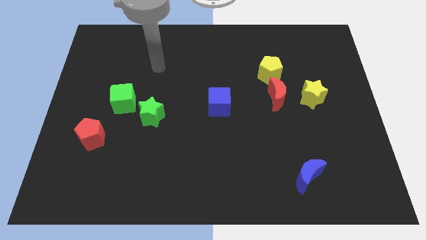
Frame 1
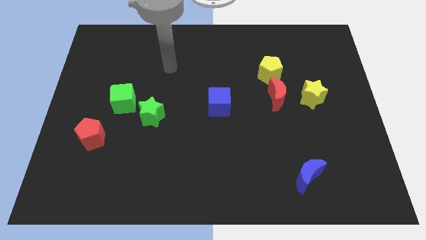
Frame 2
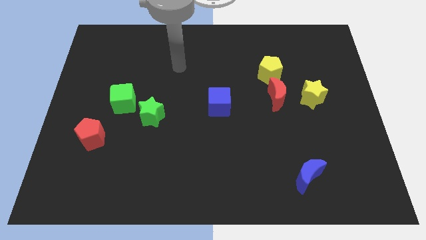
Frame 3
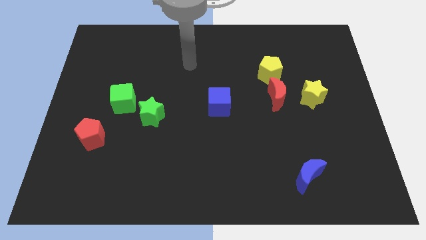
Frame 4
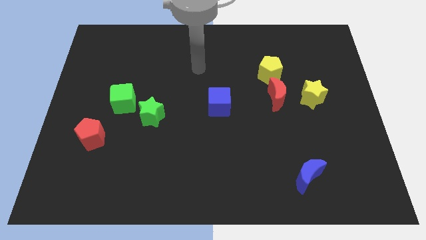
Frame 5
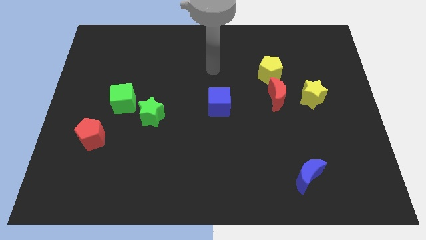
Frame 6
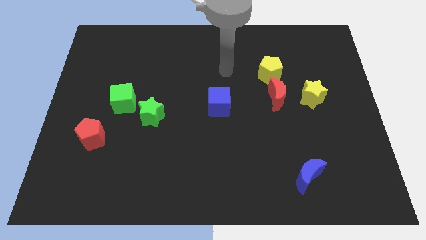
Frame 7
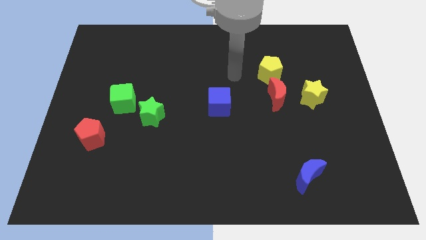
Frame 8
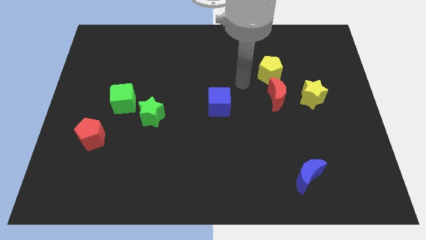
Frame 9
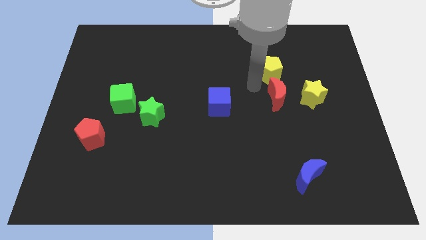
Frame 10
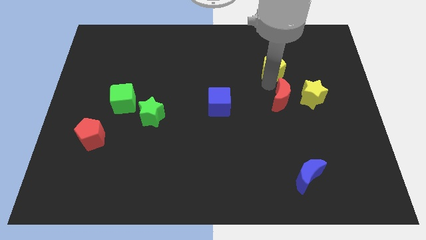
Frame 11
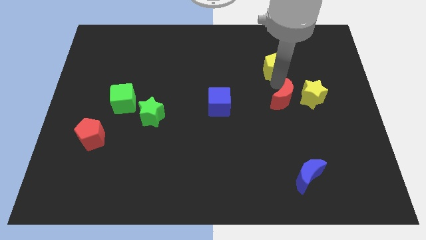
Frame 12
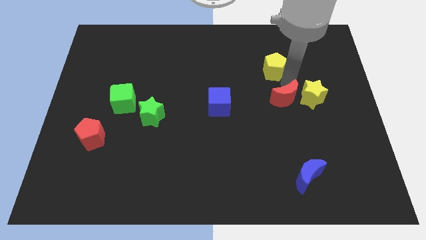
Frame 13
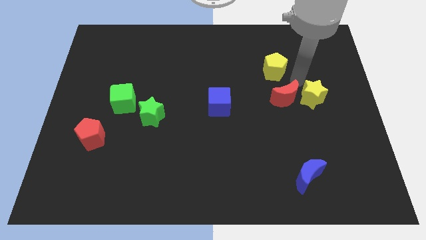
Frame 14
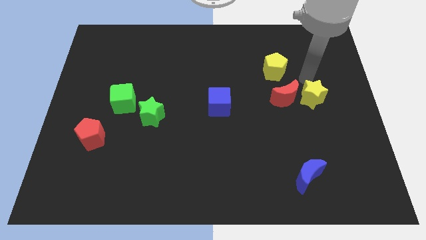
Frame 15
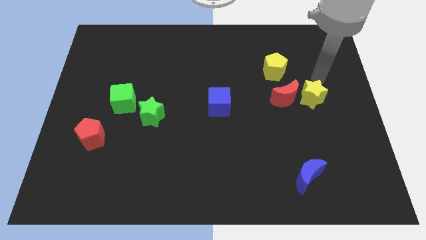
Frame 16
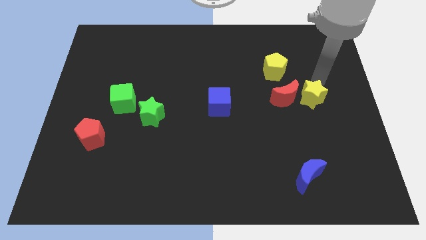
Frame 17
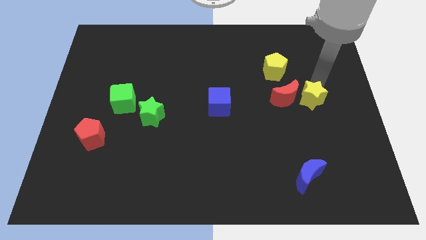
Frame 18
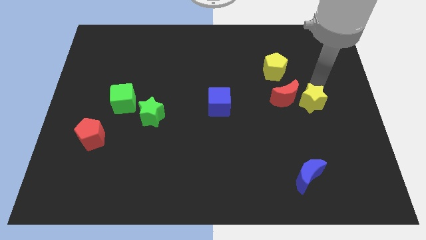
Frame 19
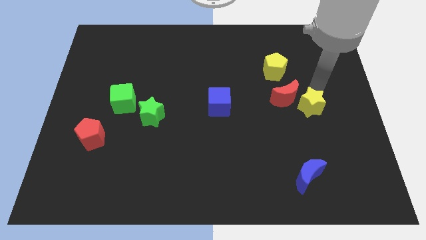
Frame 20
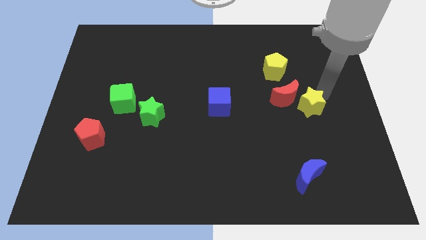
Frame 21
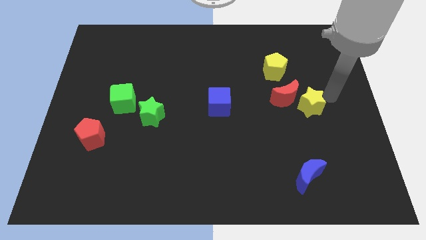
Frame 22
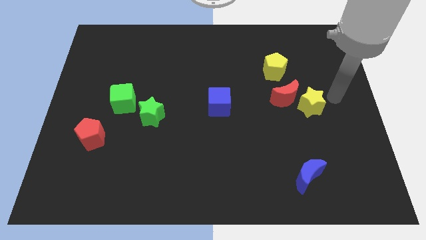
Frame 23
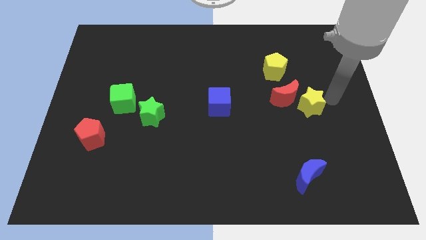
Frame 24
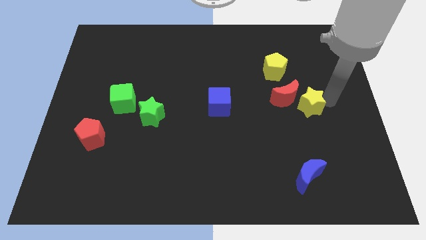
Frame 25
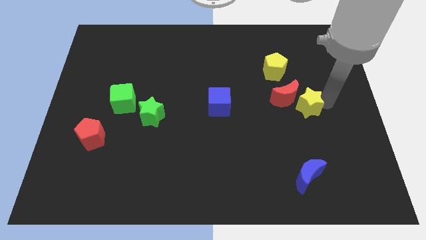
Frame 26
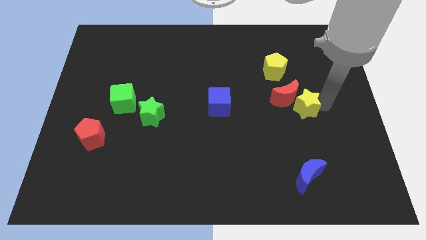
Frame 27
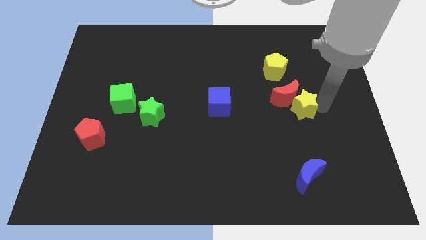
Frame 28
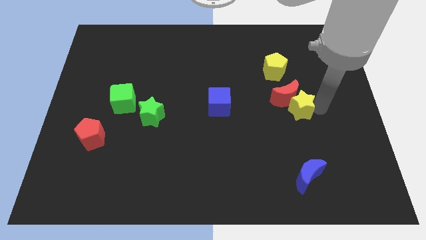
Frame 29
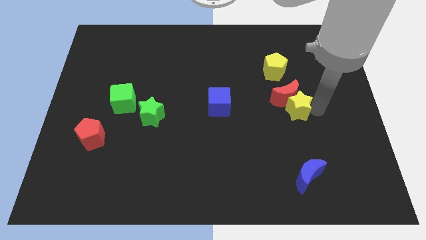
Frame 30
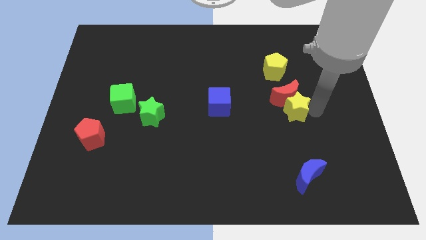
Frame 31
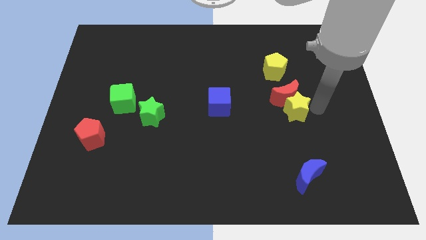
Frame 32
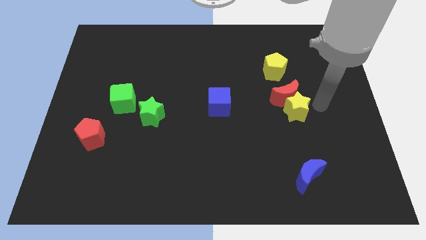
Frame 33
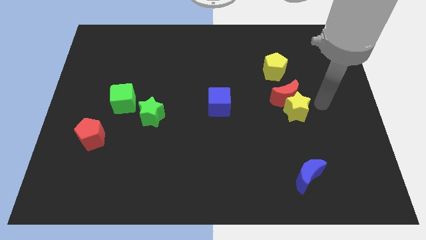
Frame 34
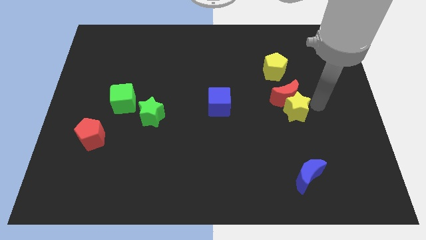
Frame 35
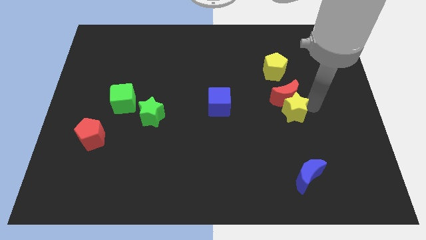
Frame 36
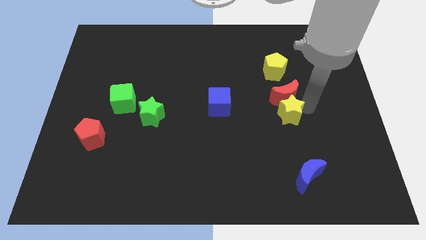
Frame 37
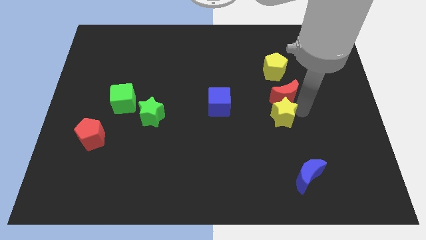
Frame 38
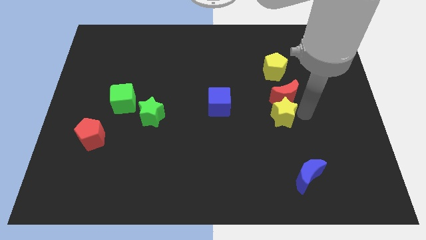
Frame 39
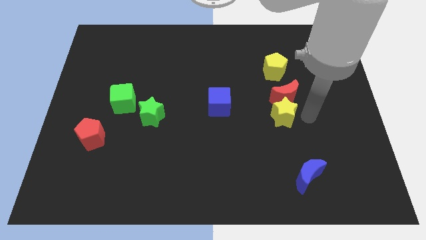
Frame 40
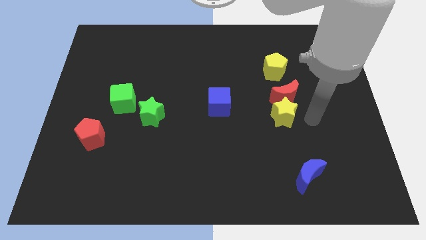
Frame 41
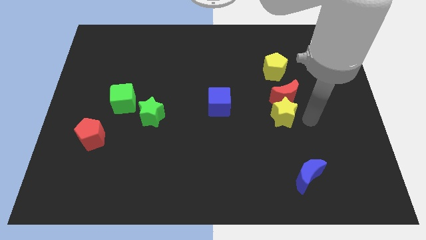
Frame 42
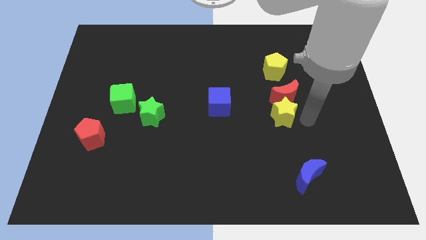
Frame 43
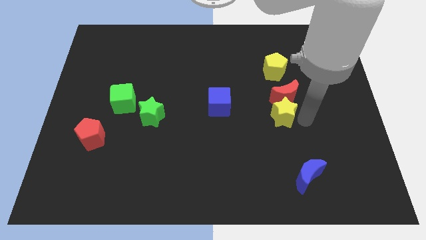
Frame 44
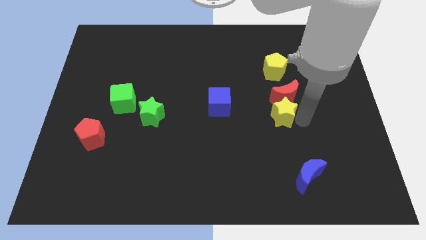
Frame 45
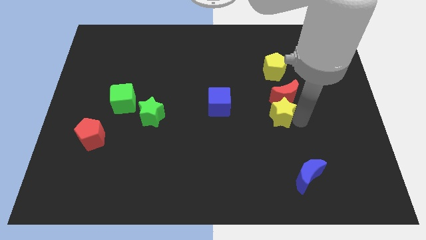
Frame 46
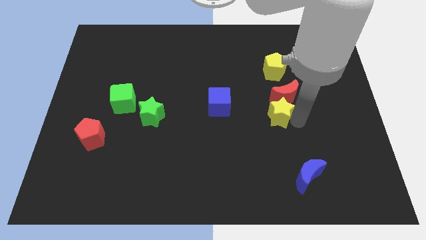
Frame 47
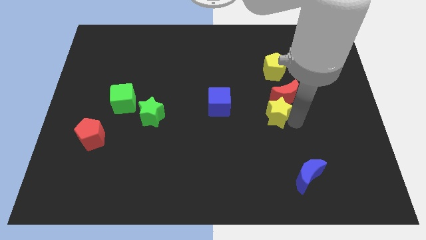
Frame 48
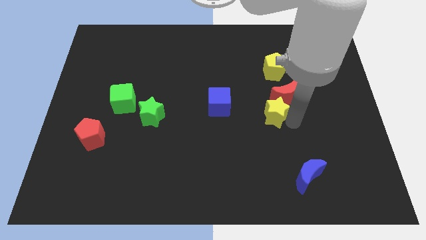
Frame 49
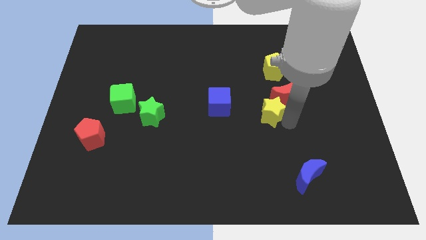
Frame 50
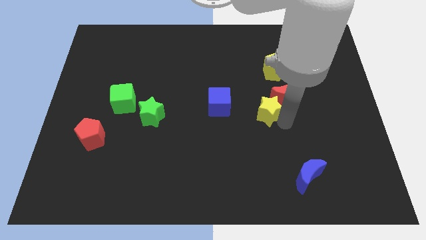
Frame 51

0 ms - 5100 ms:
move the yellow star to the left of the red moon

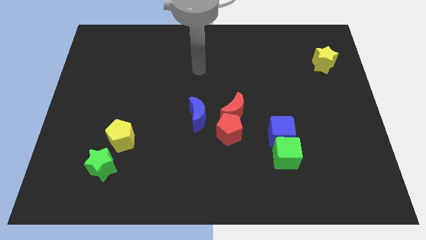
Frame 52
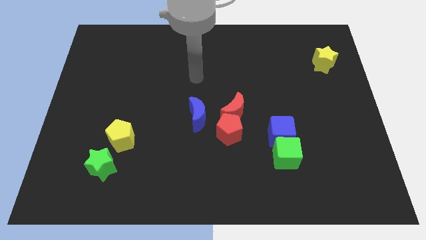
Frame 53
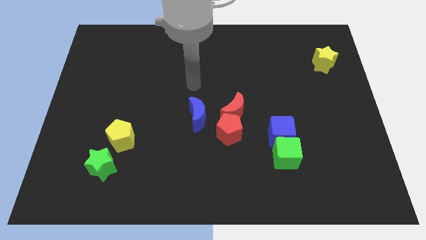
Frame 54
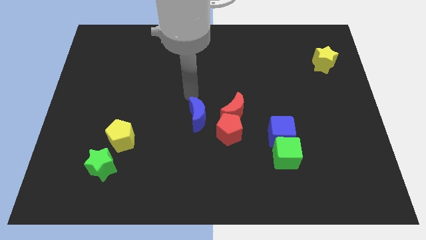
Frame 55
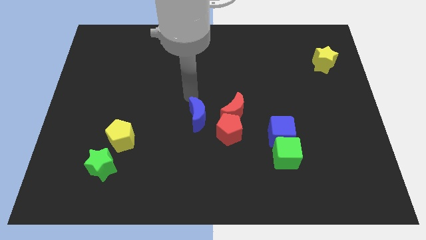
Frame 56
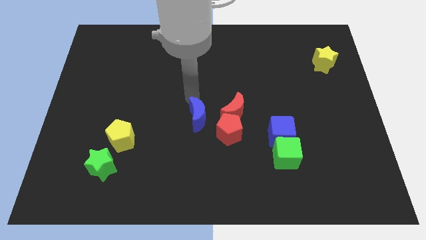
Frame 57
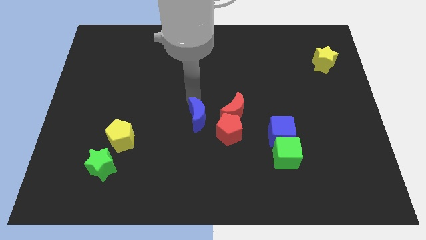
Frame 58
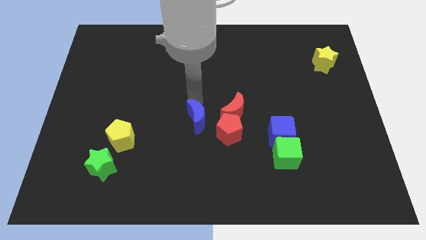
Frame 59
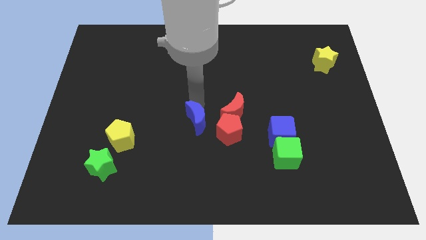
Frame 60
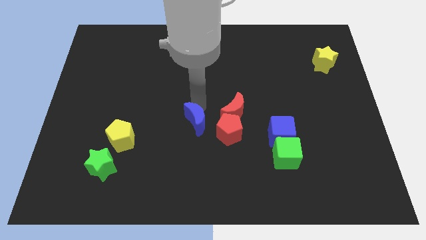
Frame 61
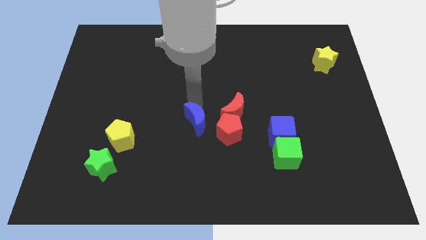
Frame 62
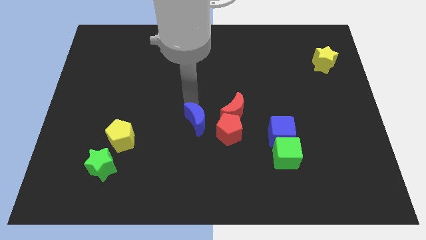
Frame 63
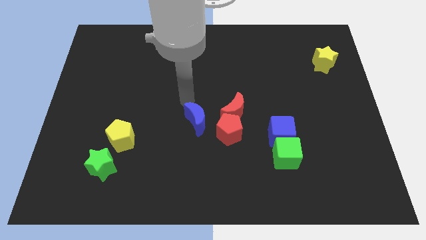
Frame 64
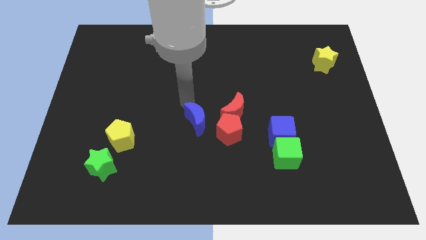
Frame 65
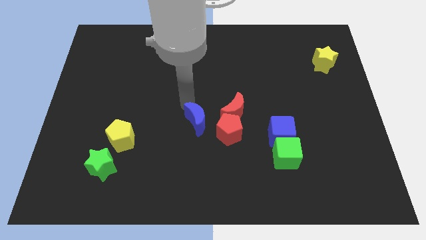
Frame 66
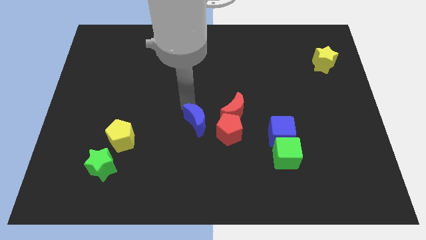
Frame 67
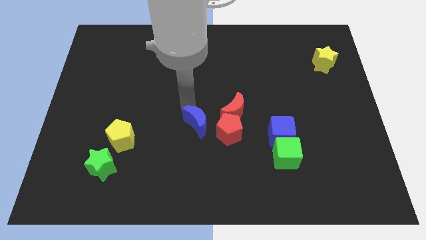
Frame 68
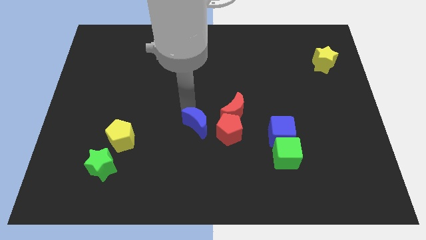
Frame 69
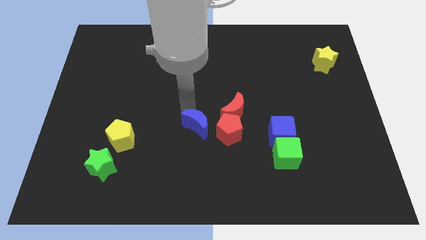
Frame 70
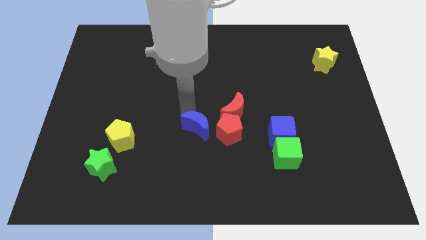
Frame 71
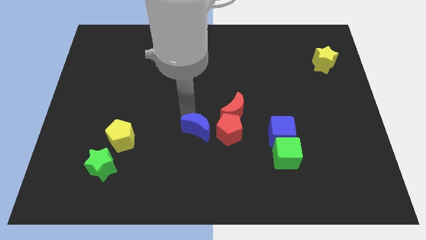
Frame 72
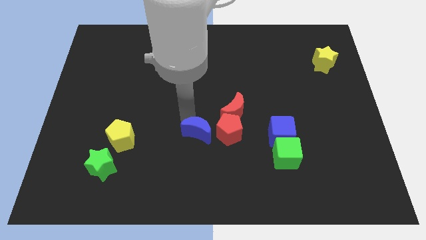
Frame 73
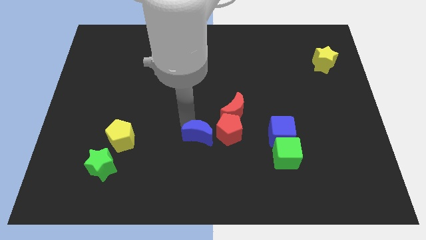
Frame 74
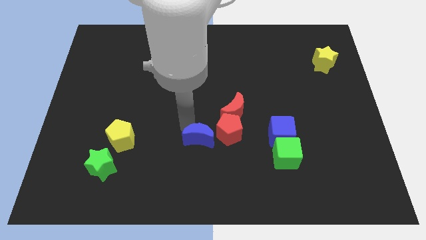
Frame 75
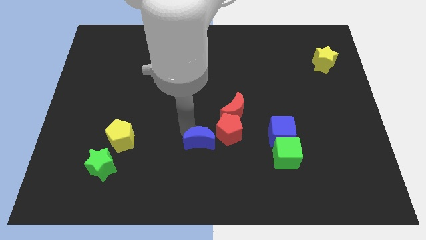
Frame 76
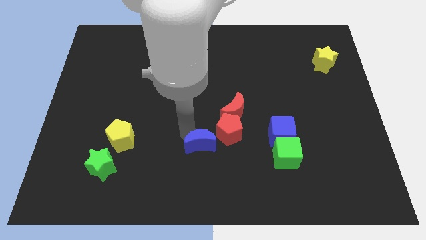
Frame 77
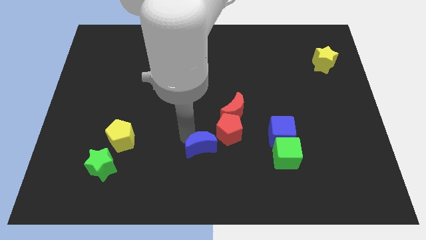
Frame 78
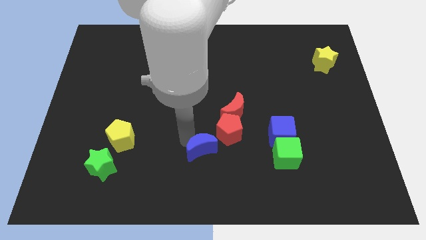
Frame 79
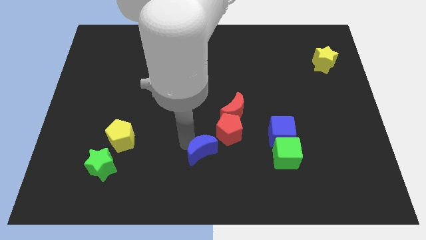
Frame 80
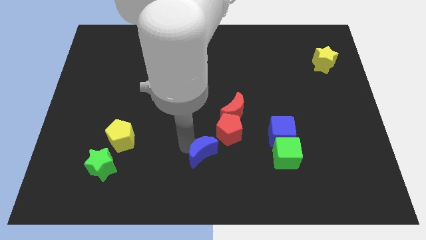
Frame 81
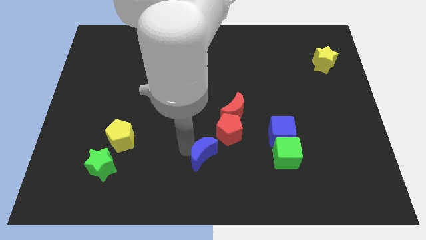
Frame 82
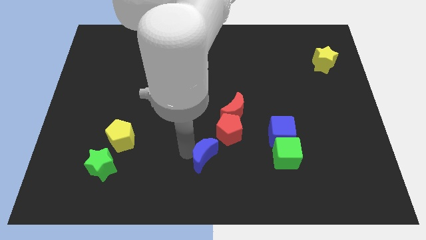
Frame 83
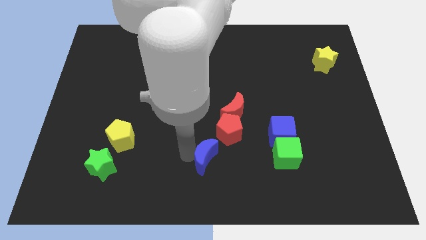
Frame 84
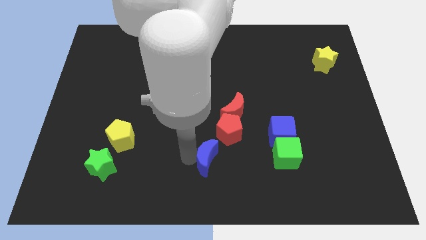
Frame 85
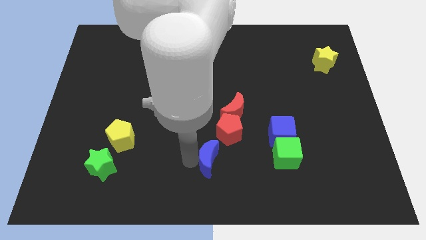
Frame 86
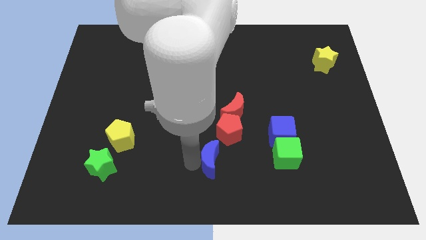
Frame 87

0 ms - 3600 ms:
put the blue moon to the left side of the green cube
